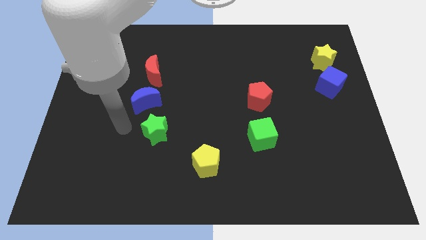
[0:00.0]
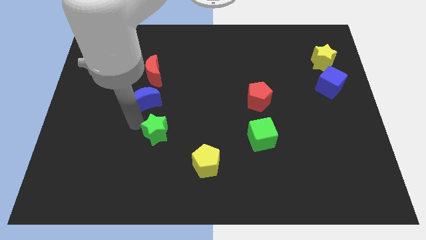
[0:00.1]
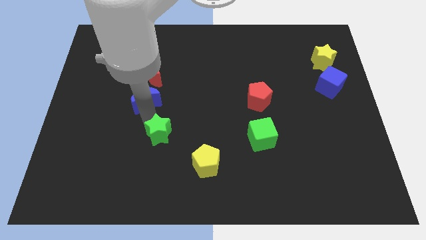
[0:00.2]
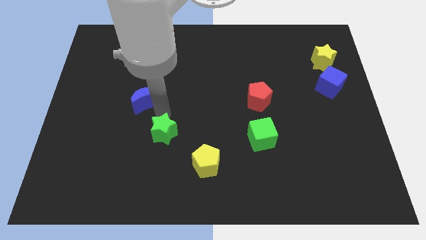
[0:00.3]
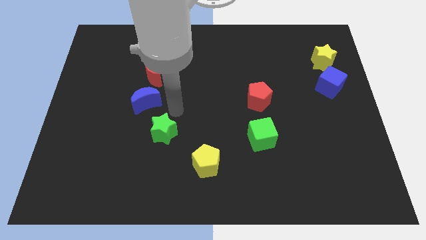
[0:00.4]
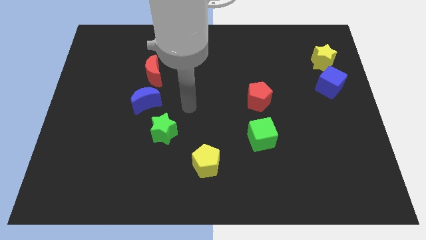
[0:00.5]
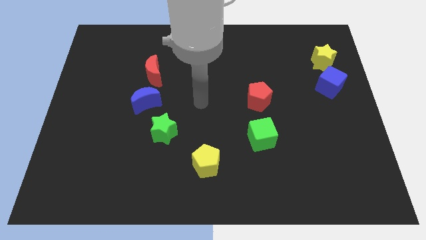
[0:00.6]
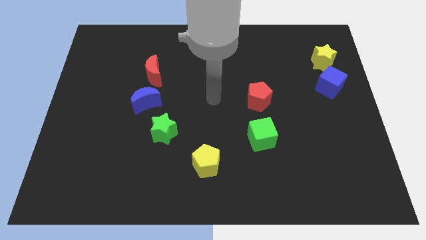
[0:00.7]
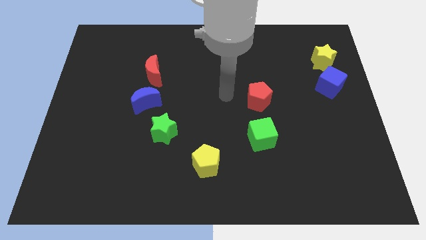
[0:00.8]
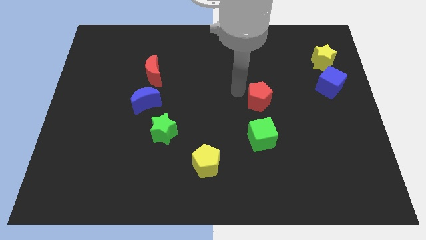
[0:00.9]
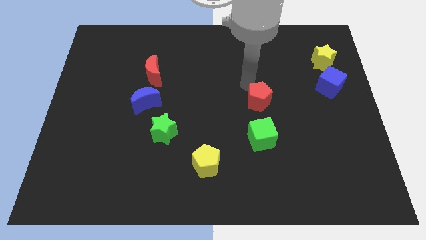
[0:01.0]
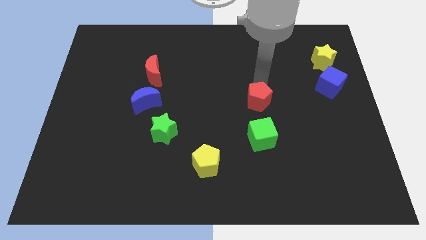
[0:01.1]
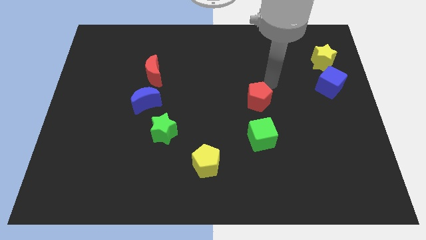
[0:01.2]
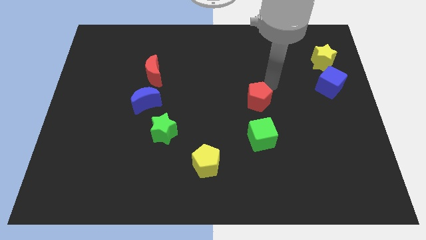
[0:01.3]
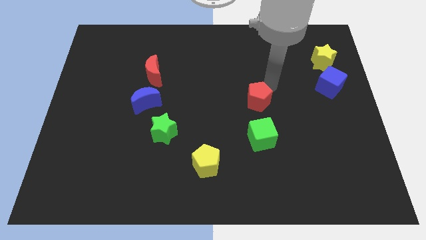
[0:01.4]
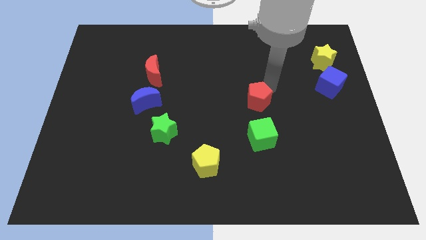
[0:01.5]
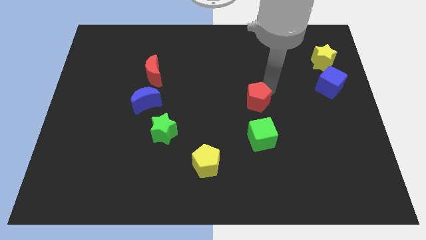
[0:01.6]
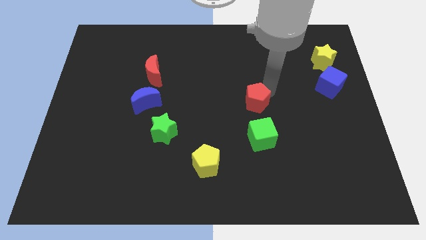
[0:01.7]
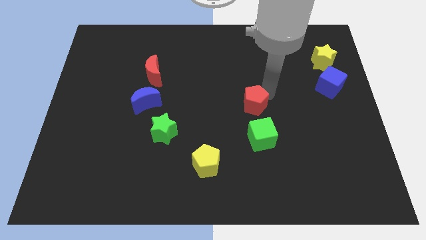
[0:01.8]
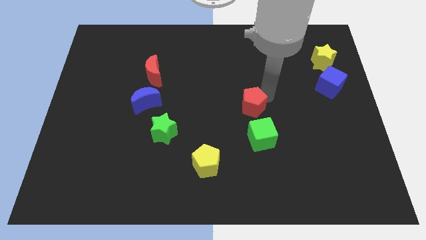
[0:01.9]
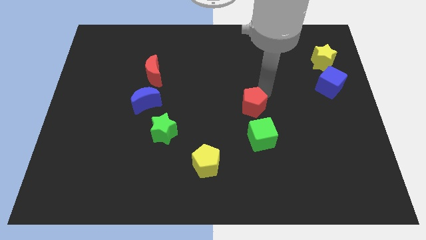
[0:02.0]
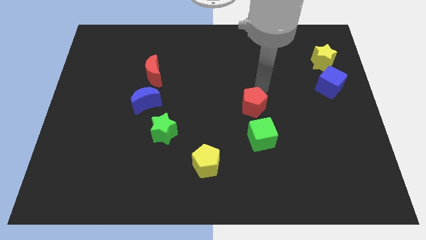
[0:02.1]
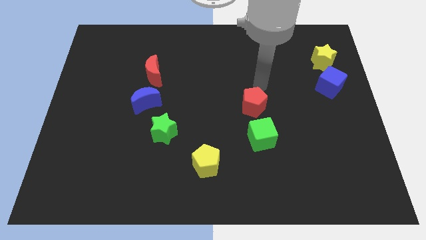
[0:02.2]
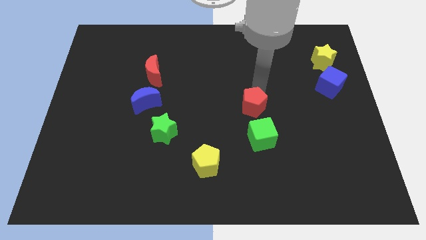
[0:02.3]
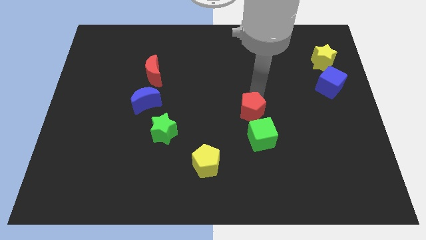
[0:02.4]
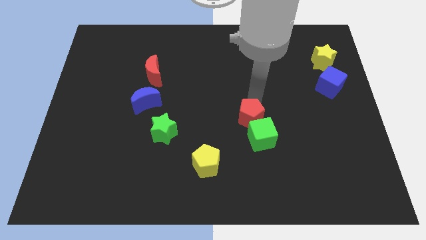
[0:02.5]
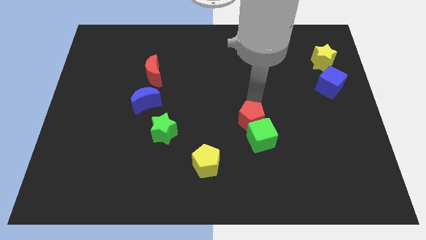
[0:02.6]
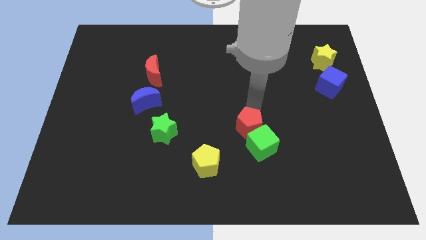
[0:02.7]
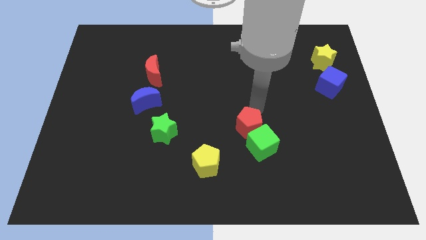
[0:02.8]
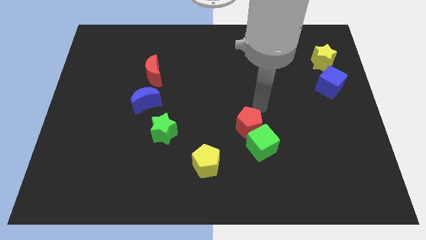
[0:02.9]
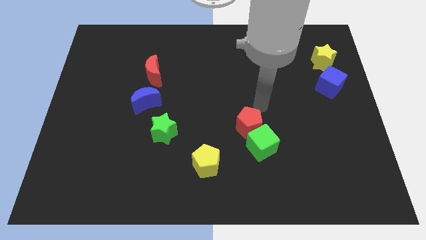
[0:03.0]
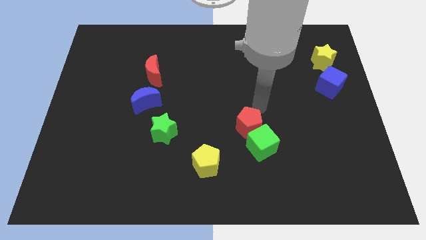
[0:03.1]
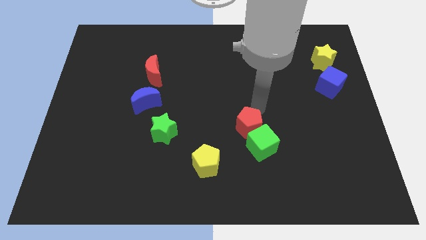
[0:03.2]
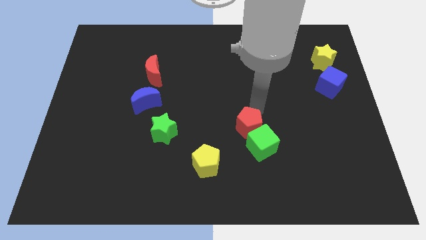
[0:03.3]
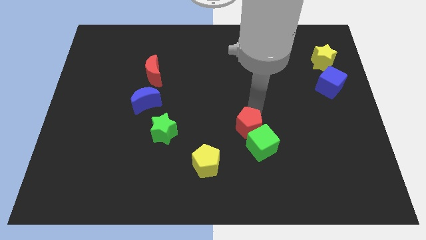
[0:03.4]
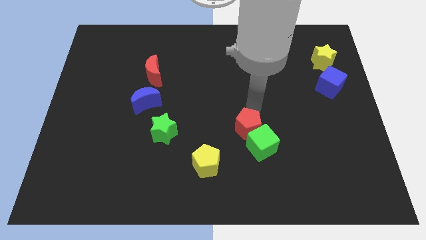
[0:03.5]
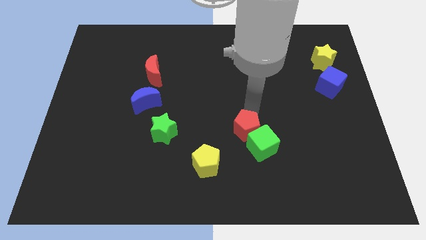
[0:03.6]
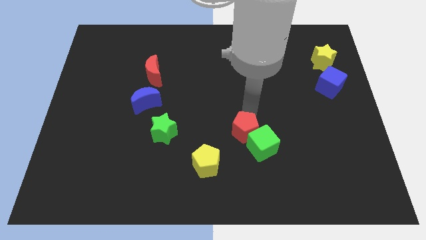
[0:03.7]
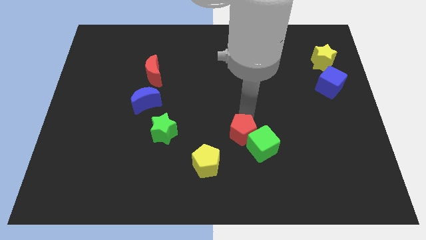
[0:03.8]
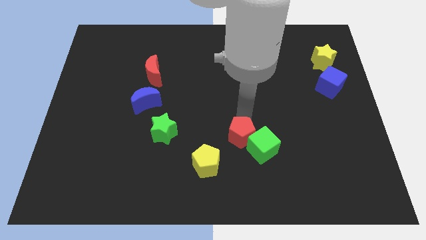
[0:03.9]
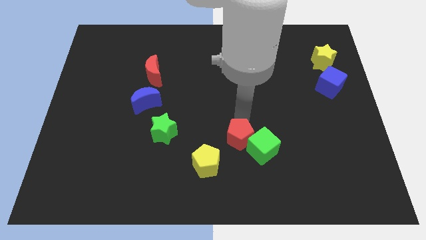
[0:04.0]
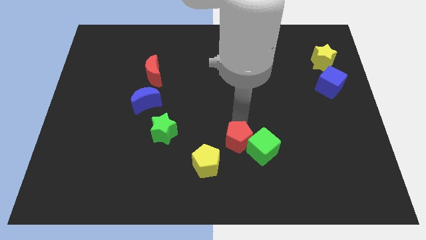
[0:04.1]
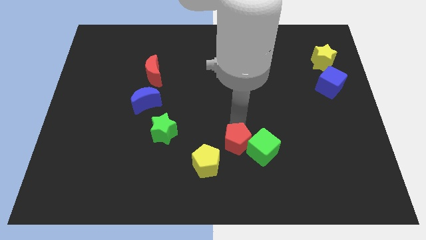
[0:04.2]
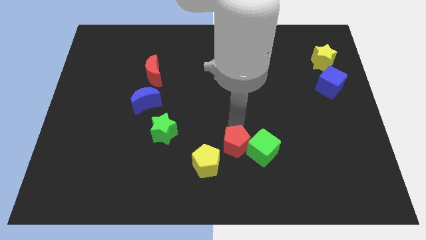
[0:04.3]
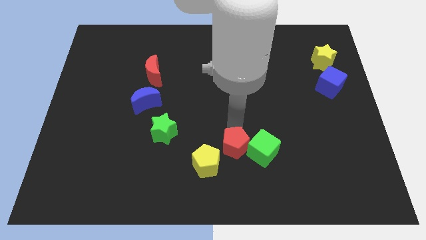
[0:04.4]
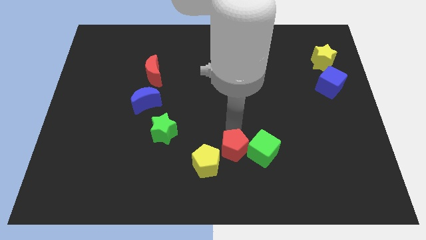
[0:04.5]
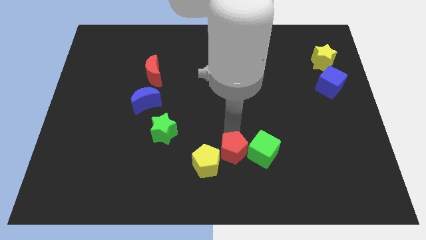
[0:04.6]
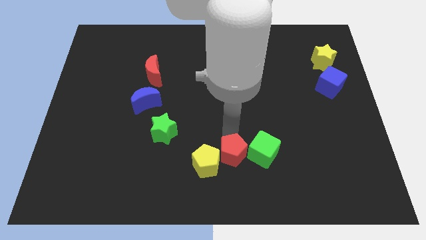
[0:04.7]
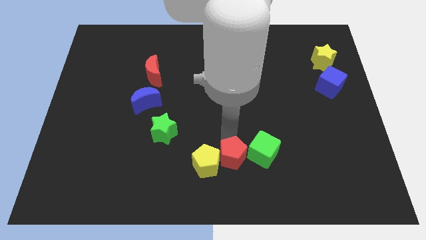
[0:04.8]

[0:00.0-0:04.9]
put the red pentagon to the bottom side

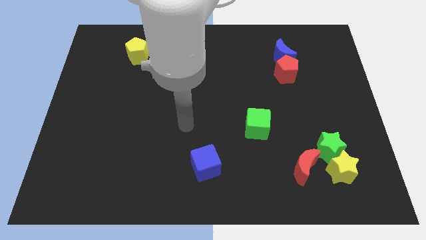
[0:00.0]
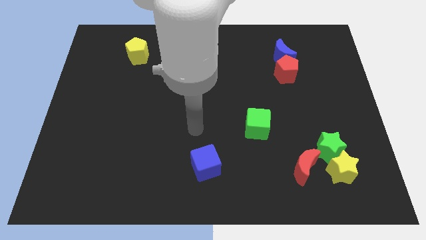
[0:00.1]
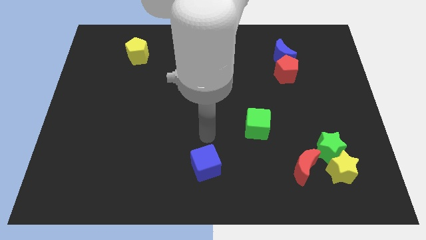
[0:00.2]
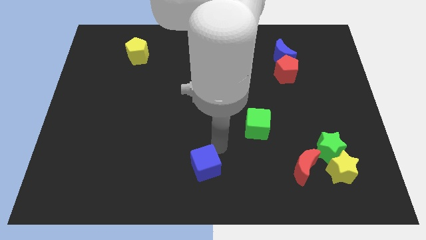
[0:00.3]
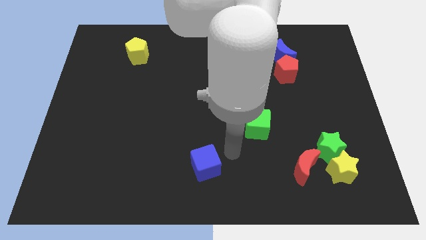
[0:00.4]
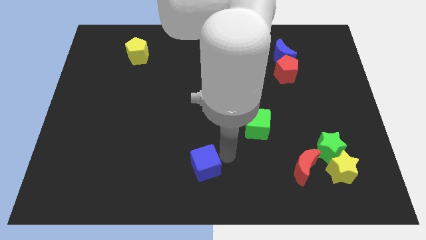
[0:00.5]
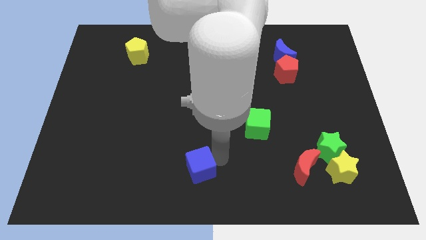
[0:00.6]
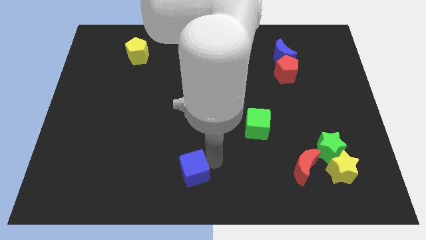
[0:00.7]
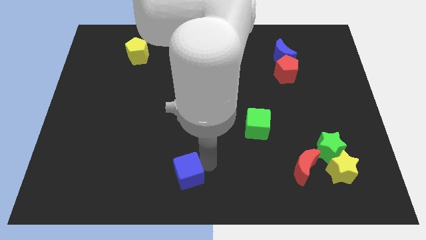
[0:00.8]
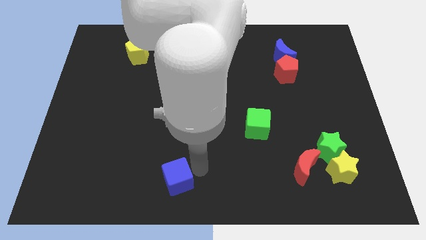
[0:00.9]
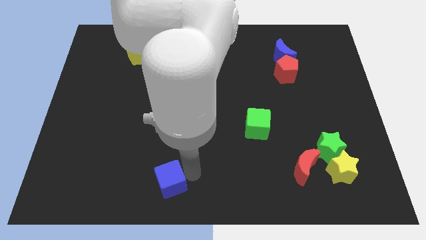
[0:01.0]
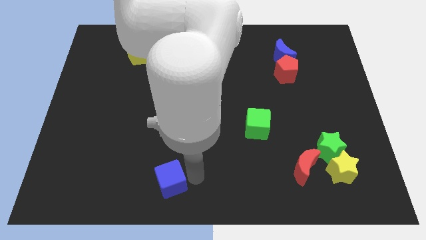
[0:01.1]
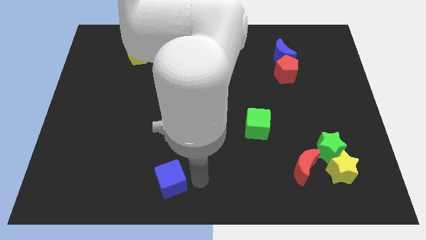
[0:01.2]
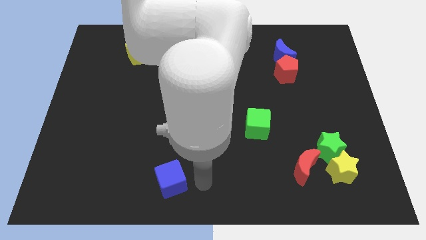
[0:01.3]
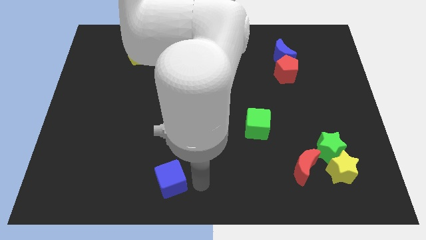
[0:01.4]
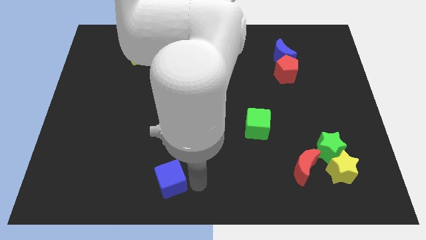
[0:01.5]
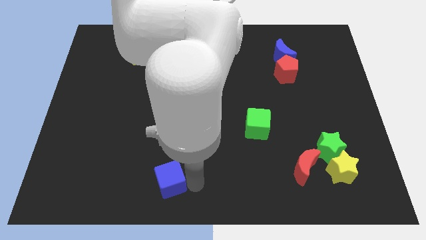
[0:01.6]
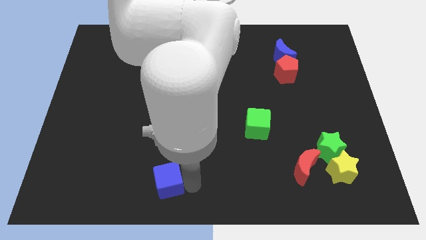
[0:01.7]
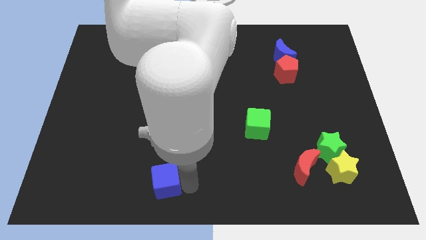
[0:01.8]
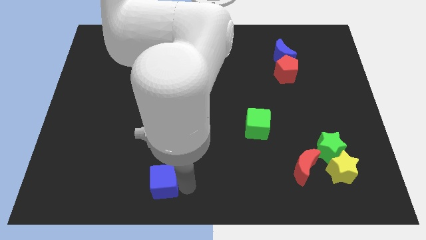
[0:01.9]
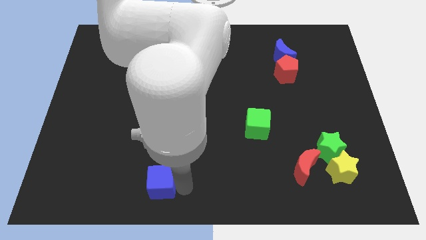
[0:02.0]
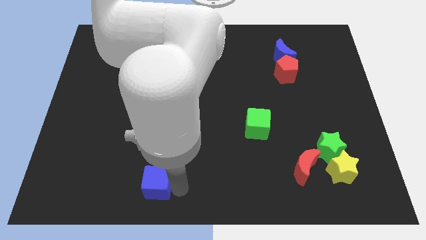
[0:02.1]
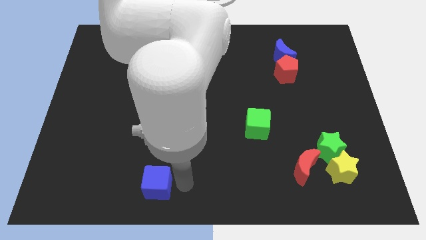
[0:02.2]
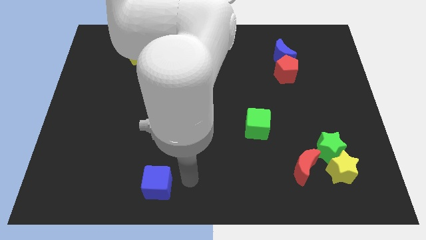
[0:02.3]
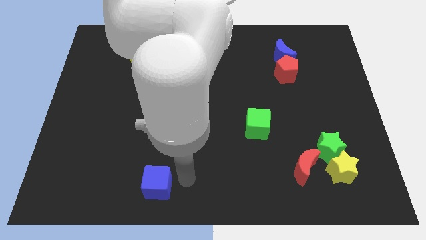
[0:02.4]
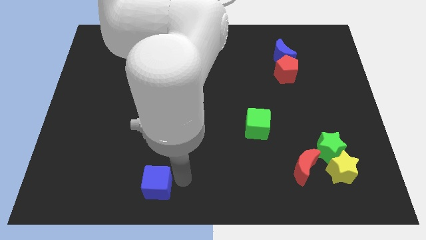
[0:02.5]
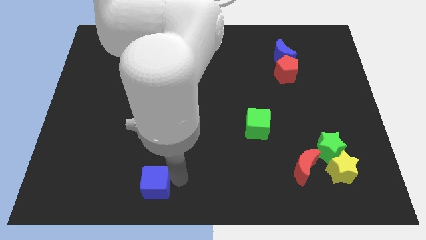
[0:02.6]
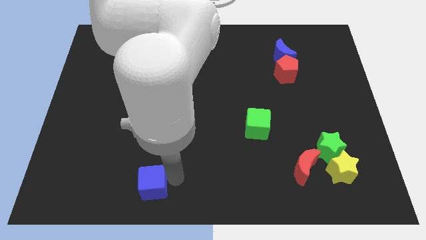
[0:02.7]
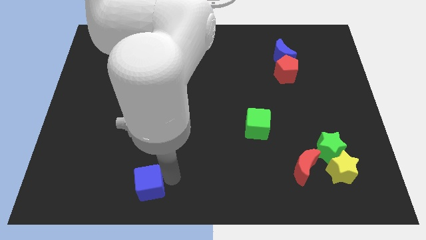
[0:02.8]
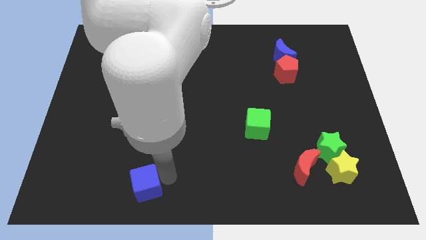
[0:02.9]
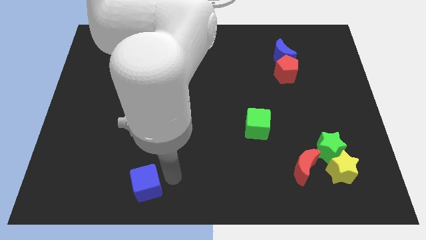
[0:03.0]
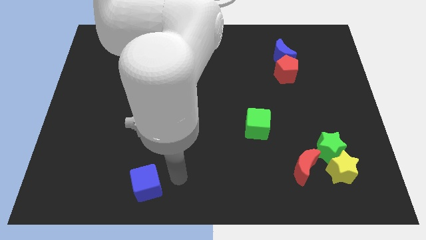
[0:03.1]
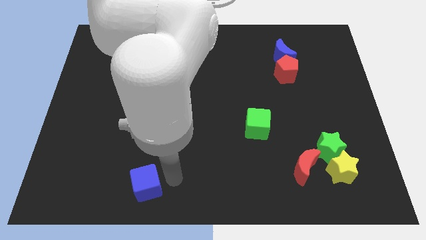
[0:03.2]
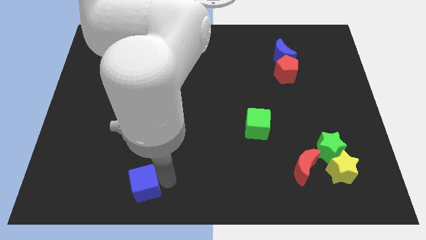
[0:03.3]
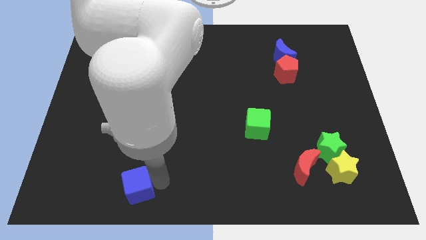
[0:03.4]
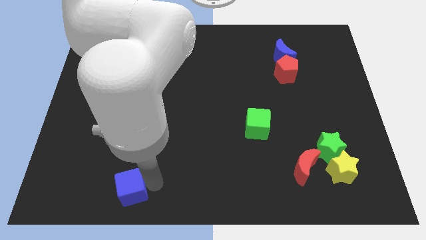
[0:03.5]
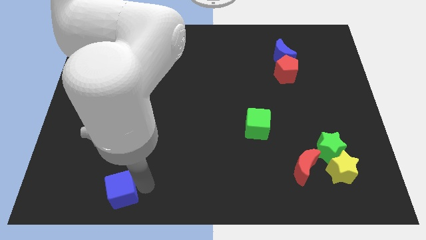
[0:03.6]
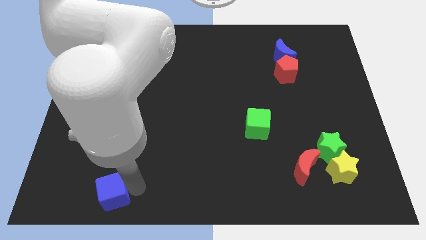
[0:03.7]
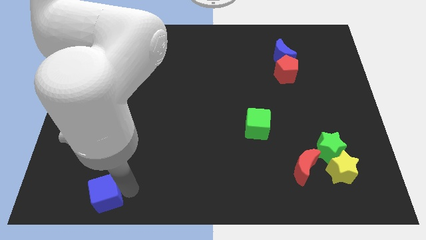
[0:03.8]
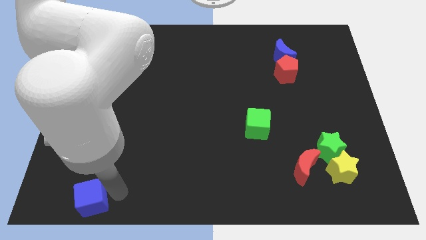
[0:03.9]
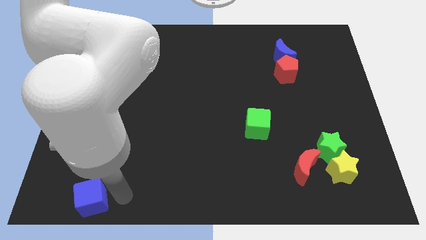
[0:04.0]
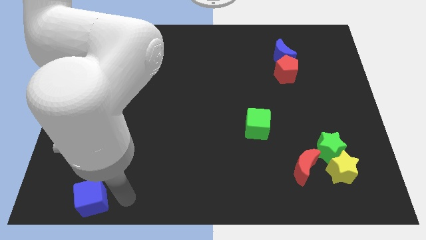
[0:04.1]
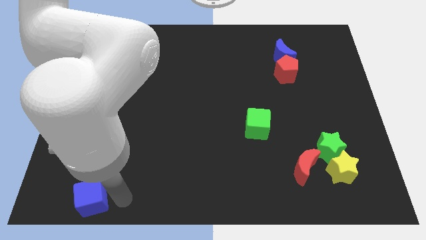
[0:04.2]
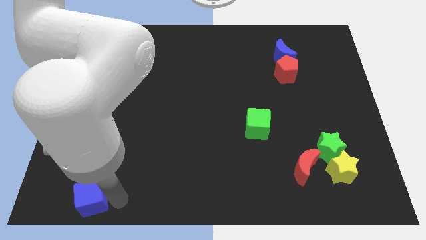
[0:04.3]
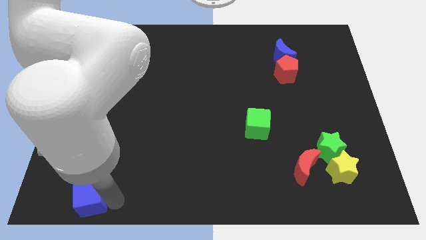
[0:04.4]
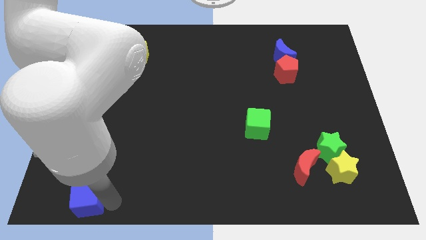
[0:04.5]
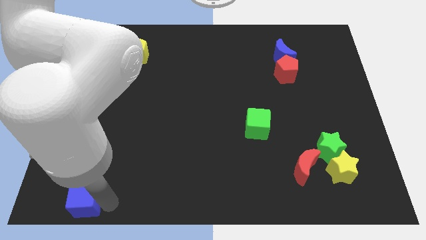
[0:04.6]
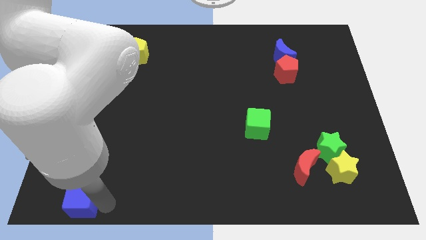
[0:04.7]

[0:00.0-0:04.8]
move the blue cube to the bottom left corner
